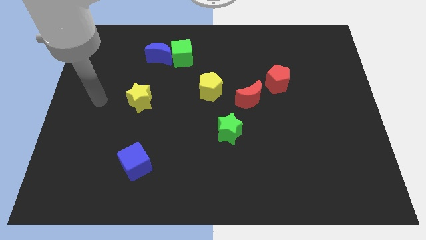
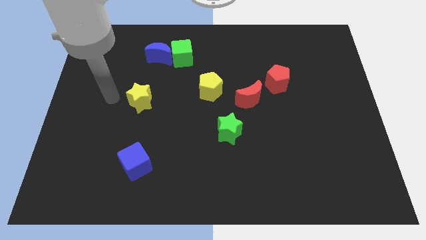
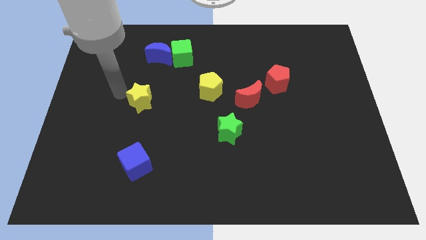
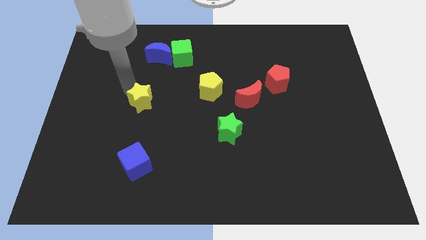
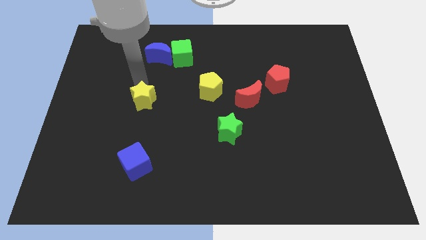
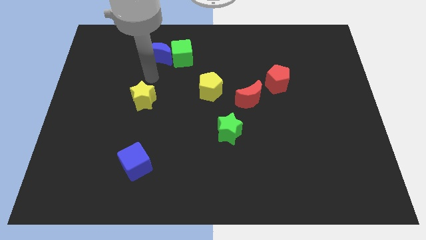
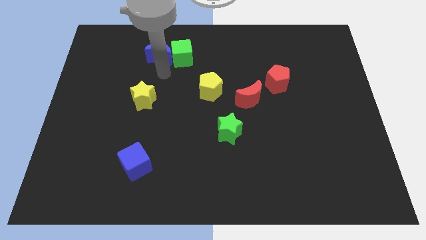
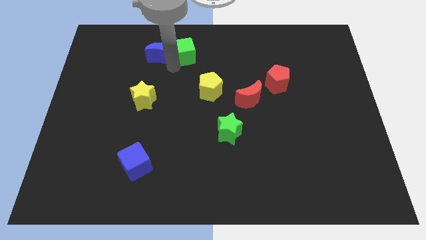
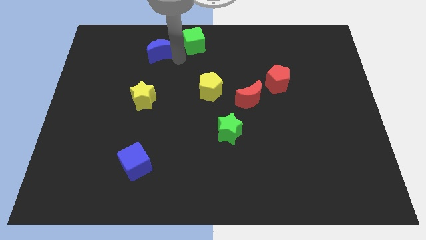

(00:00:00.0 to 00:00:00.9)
separate the blue moon from the green cube

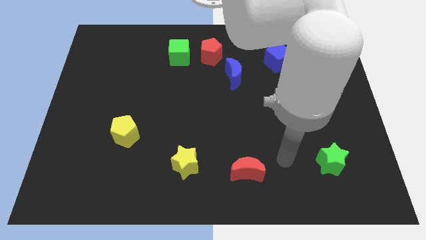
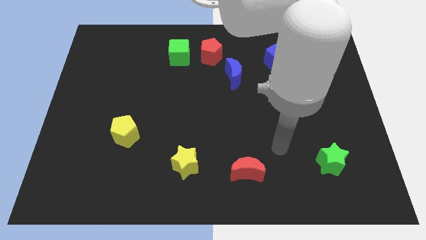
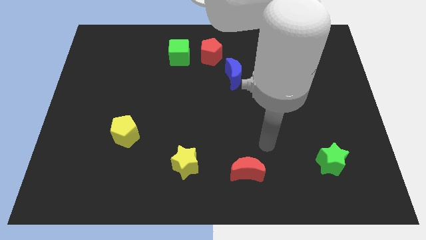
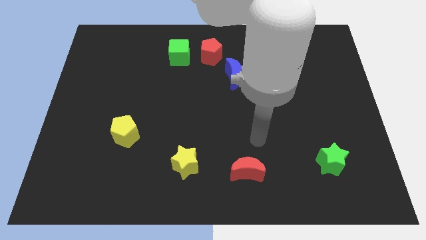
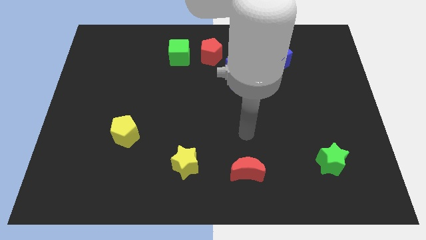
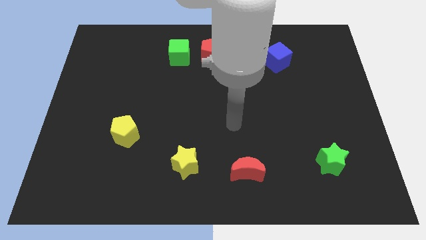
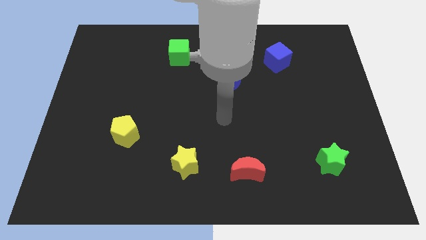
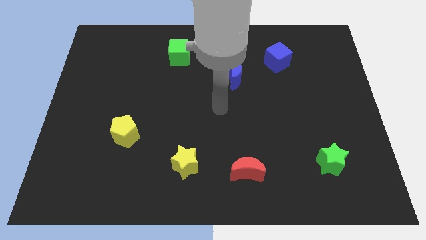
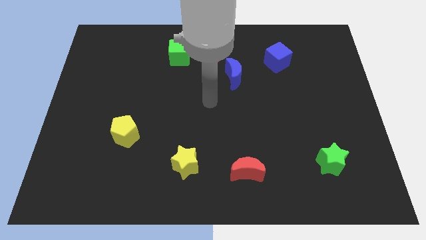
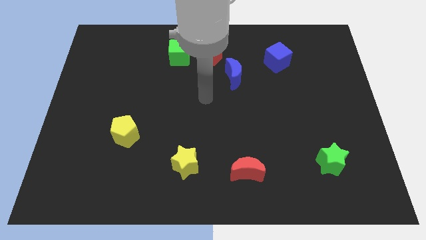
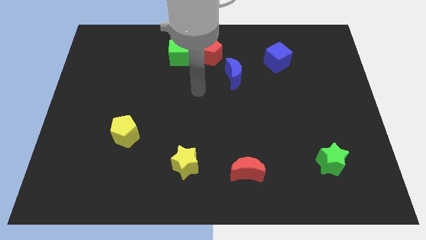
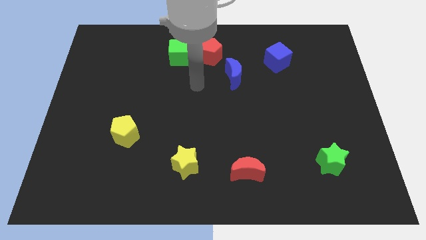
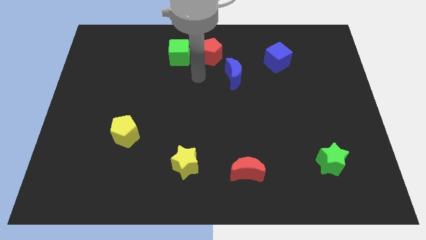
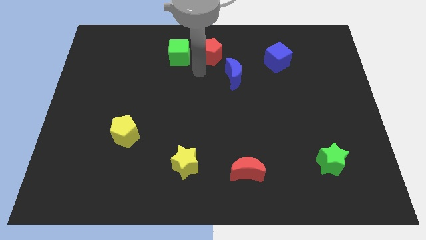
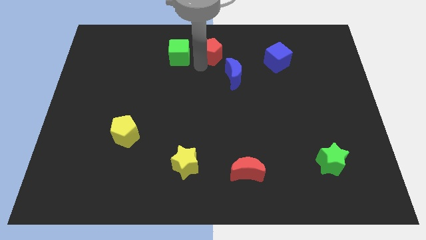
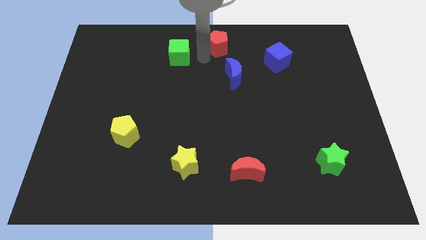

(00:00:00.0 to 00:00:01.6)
move the green cube away from the red pentagon

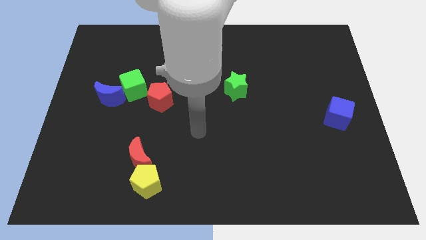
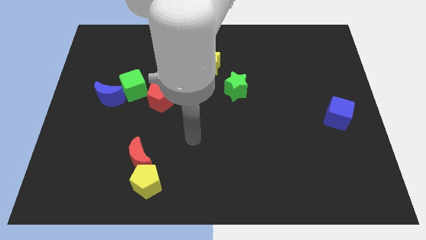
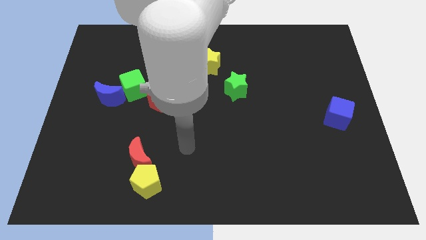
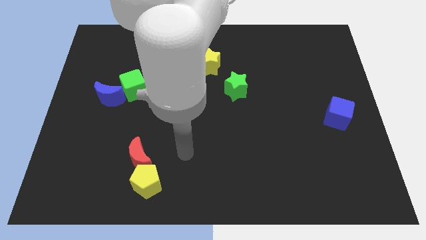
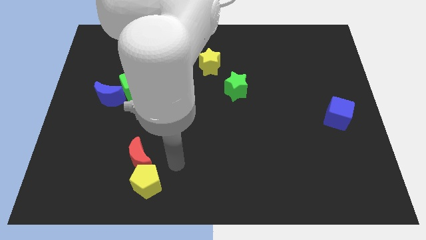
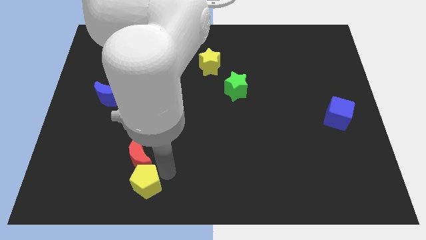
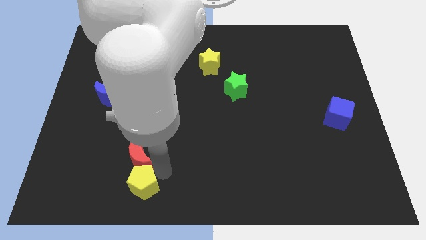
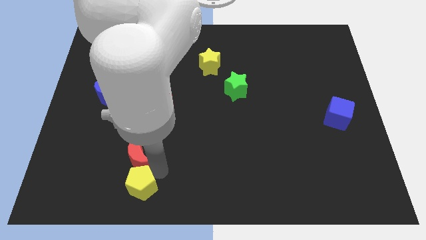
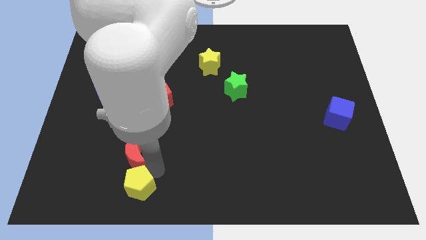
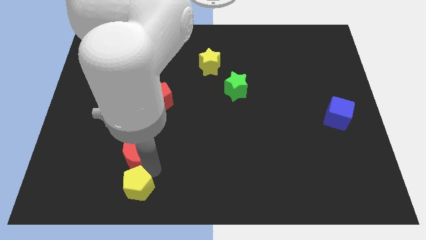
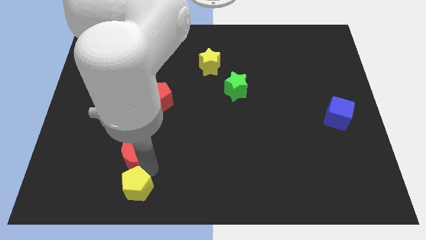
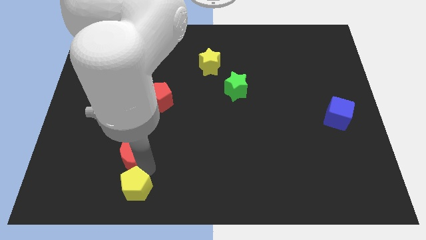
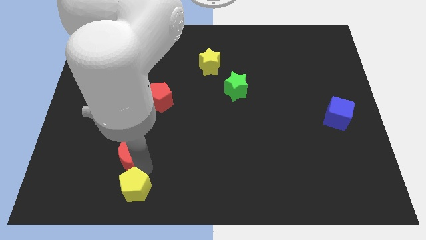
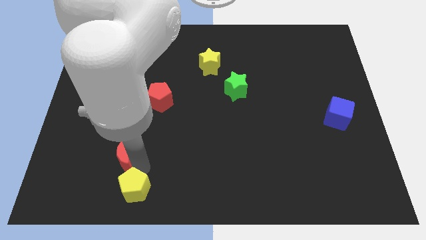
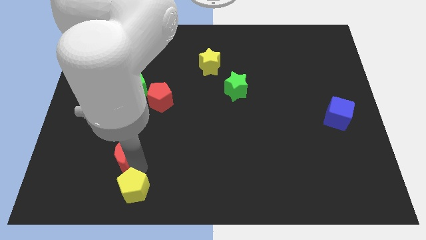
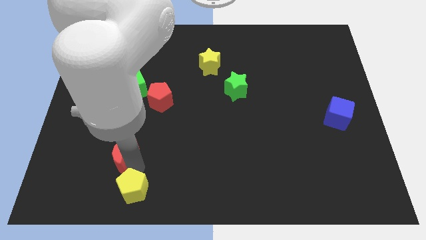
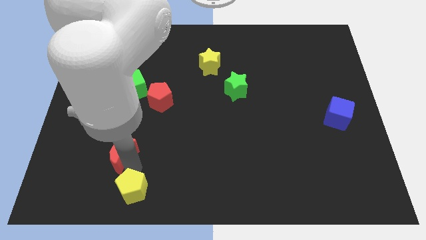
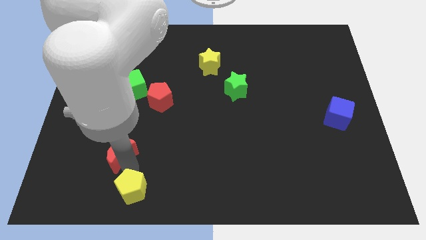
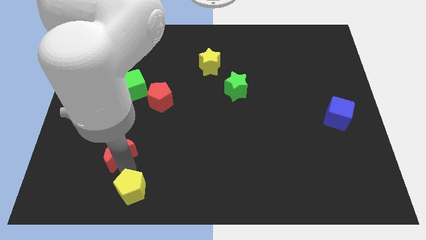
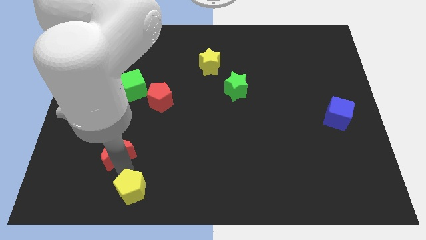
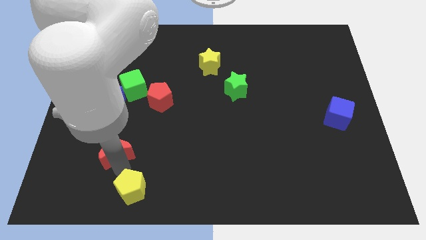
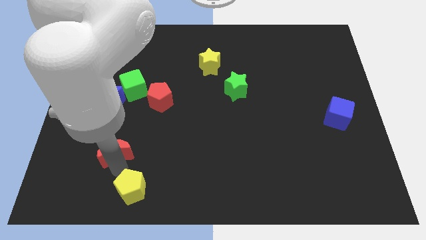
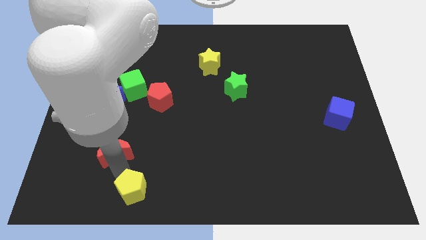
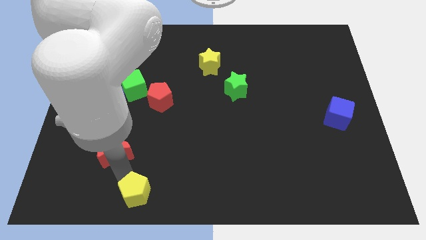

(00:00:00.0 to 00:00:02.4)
pull the red moon apart from the yellow pentagon

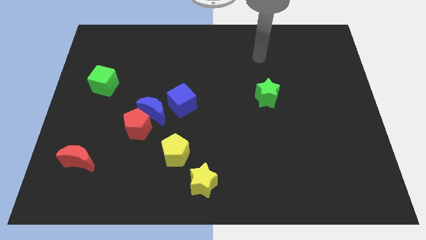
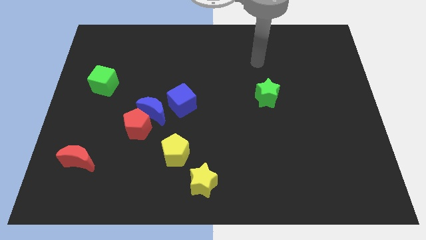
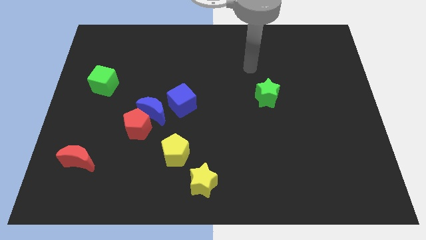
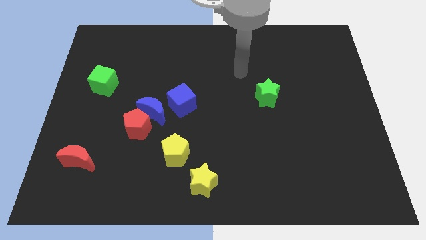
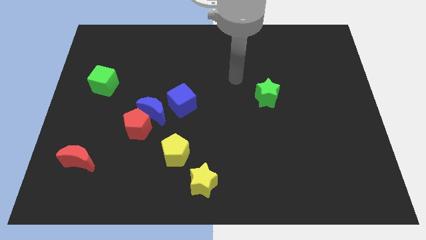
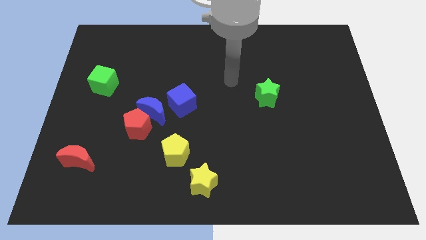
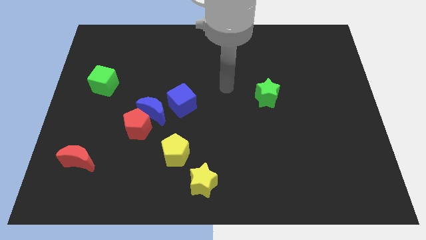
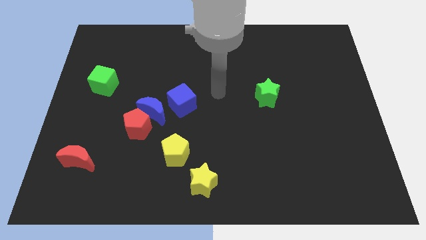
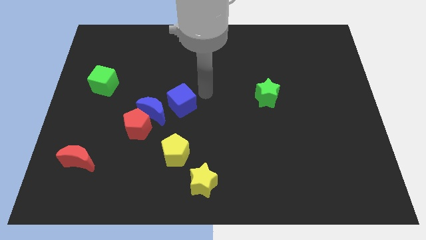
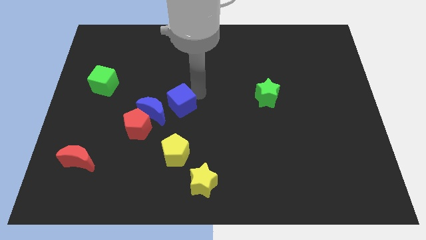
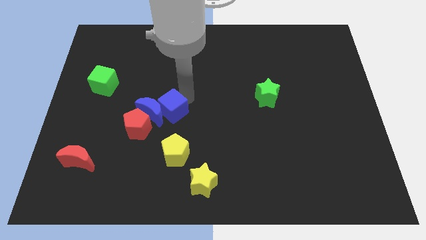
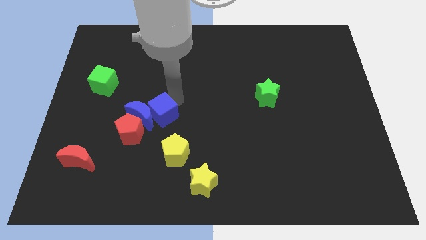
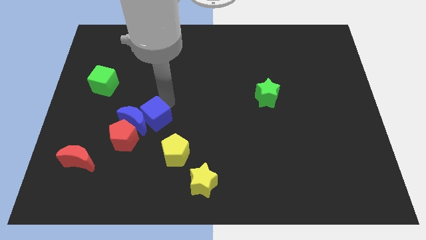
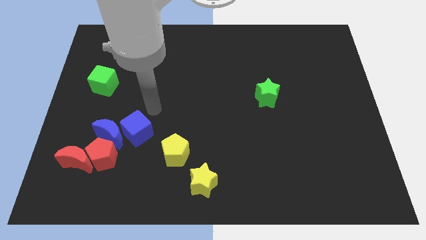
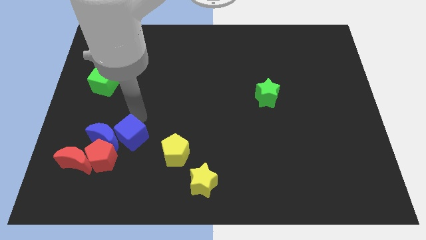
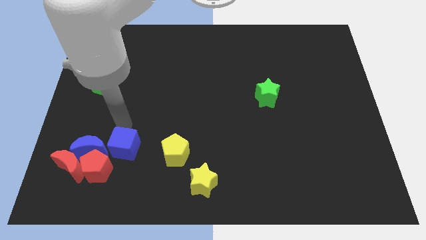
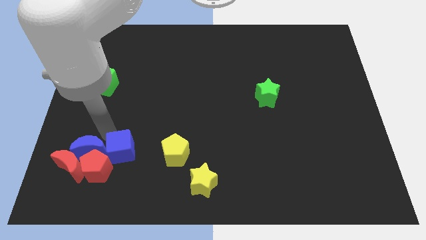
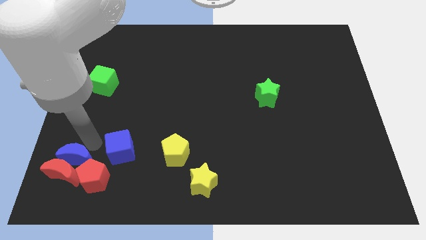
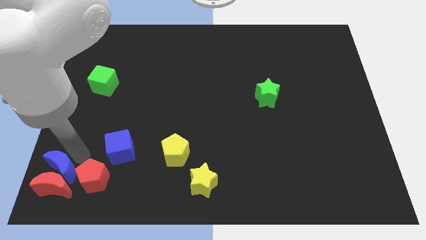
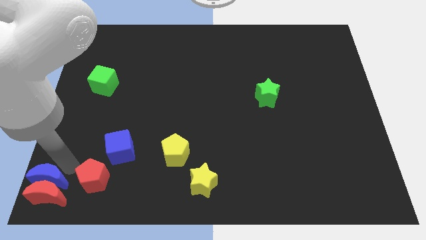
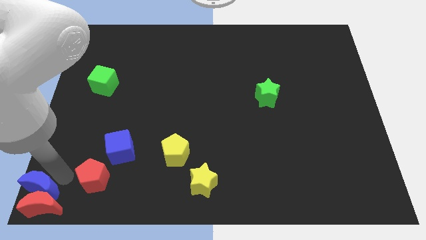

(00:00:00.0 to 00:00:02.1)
pull the red pentagon apart from the blue moon

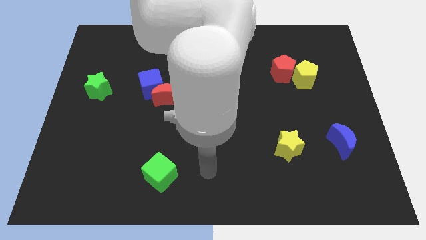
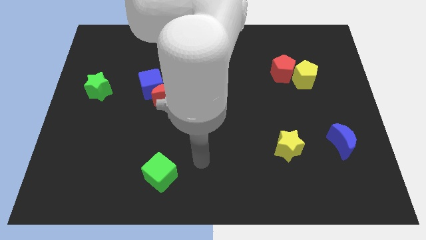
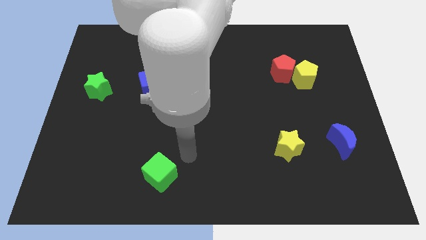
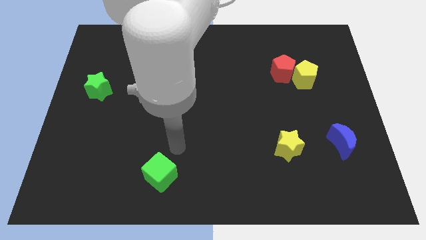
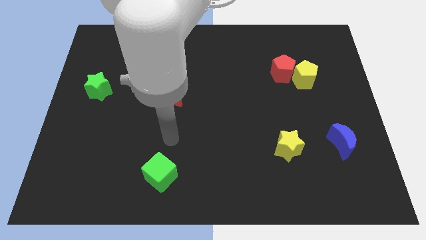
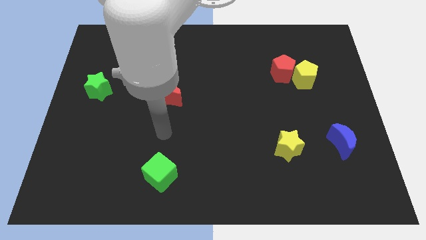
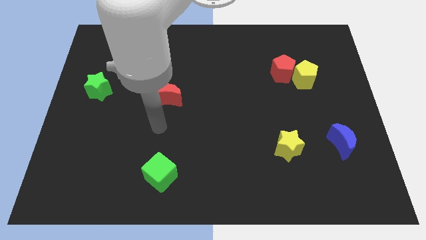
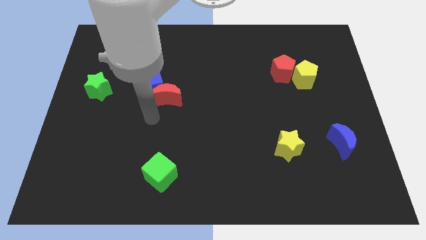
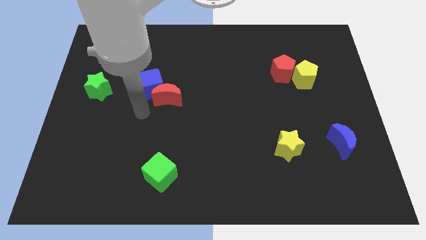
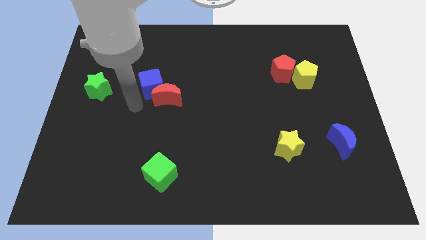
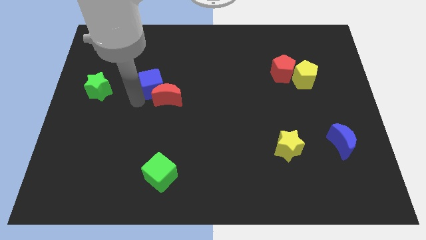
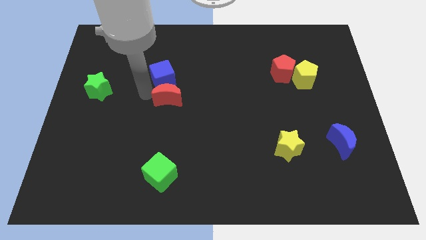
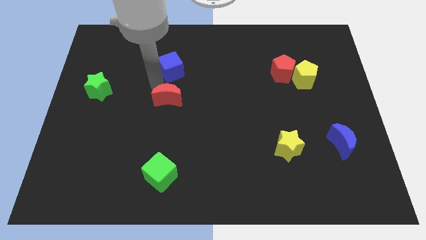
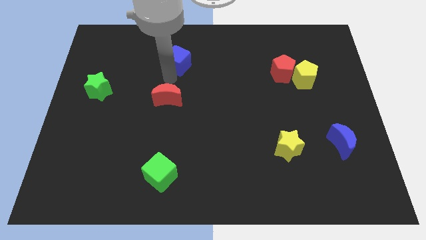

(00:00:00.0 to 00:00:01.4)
move the red moon away from the blue cube

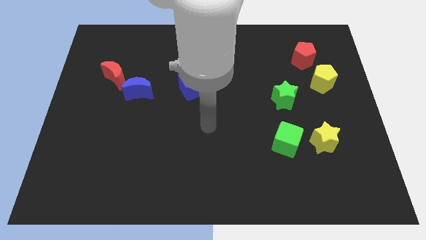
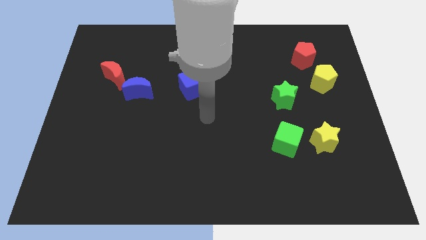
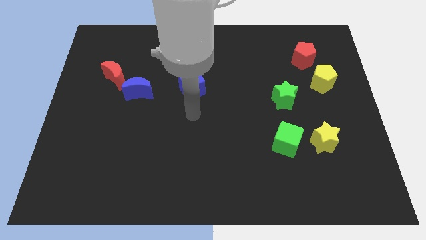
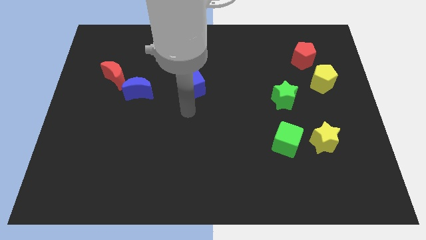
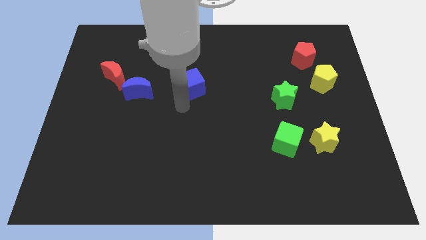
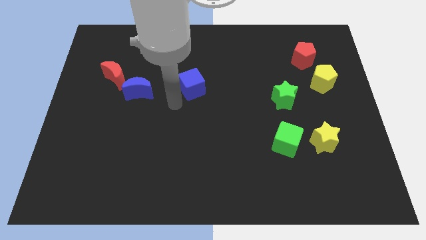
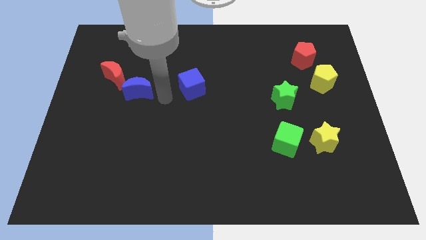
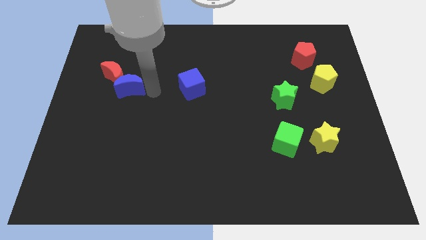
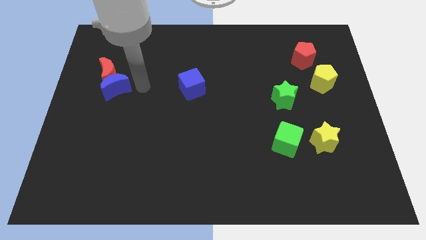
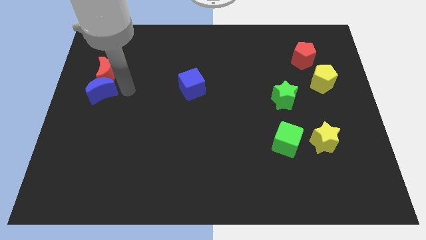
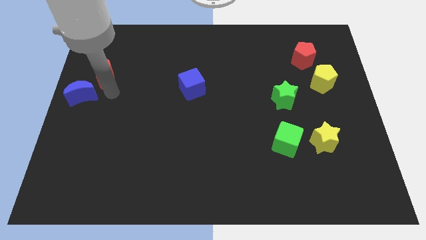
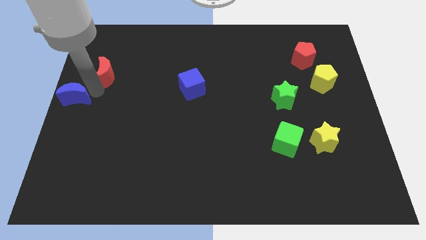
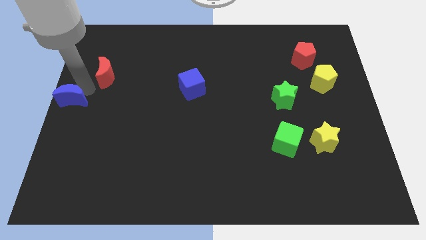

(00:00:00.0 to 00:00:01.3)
separate the red moon from the blue moon
